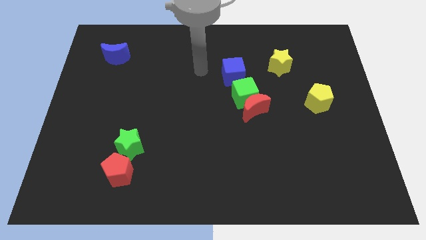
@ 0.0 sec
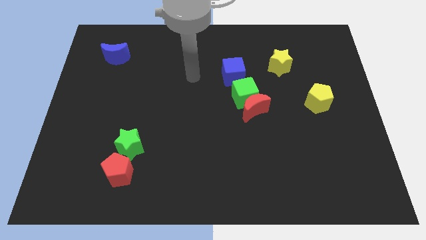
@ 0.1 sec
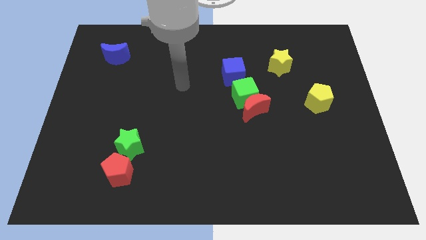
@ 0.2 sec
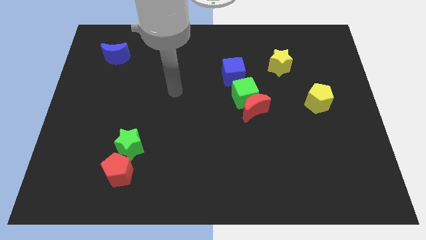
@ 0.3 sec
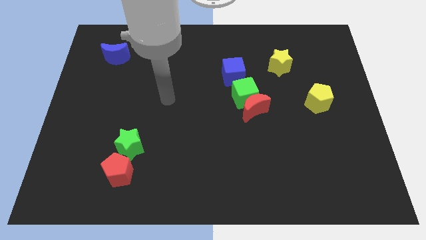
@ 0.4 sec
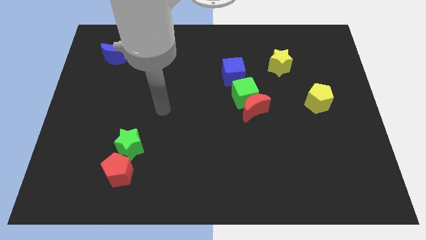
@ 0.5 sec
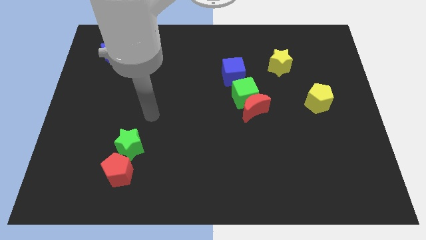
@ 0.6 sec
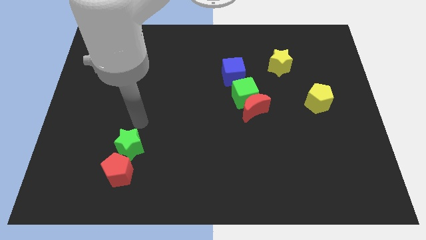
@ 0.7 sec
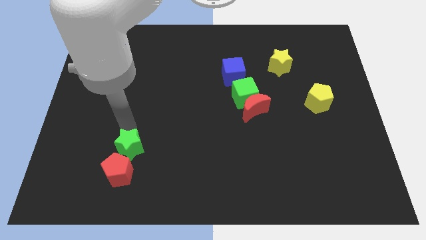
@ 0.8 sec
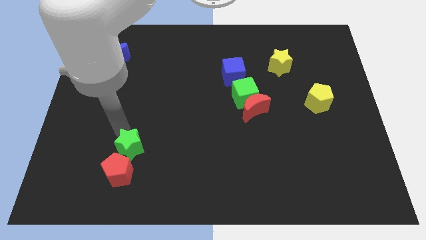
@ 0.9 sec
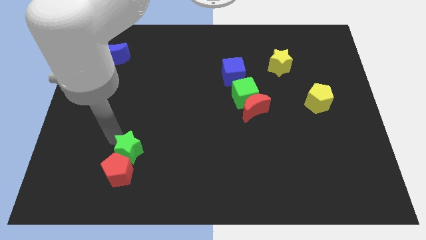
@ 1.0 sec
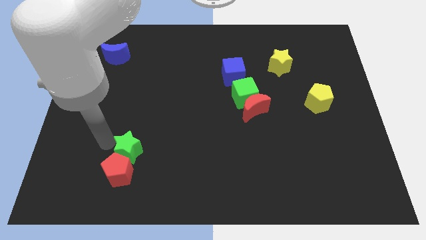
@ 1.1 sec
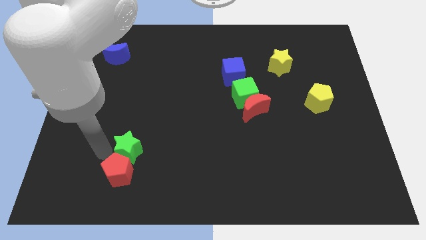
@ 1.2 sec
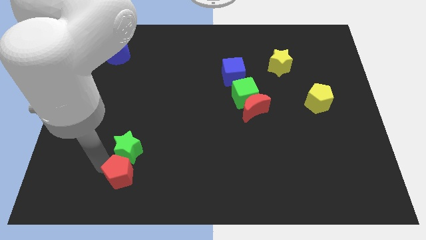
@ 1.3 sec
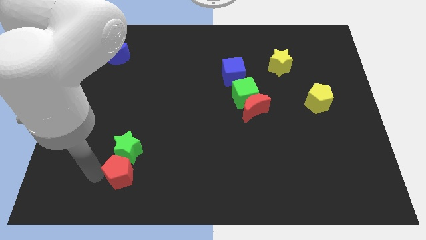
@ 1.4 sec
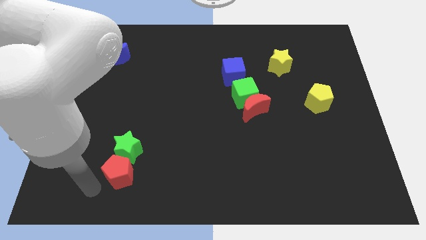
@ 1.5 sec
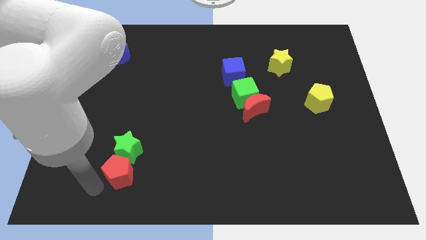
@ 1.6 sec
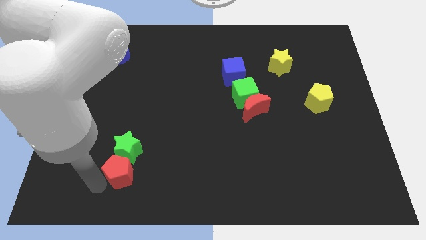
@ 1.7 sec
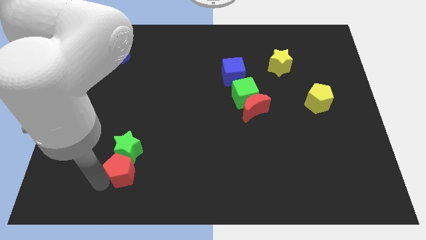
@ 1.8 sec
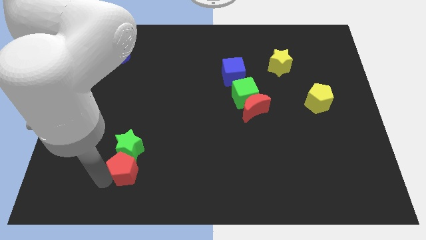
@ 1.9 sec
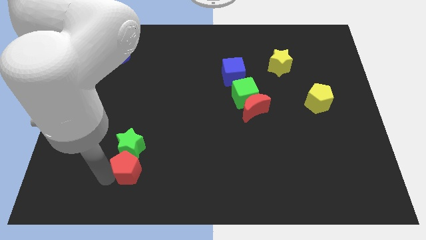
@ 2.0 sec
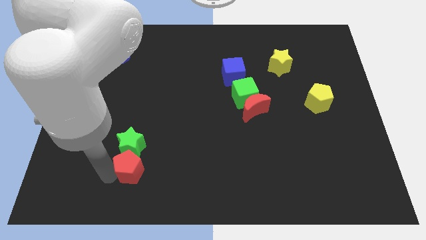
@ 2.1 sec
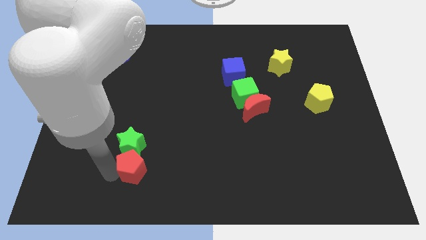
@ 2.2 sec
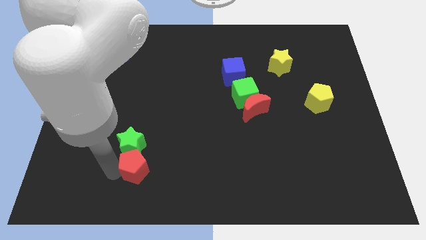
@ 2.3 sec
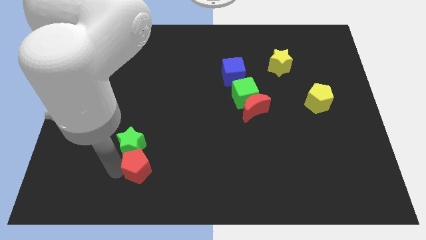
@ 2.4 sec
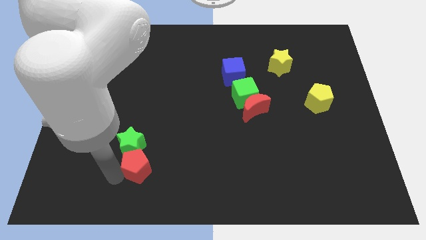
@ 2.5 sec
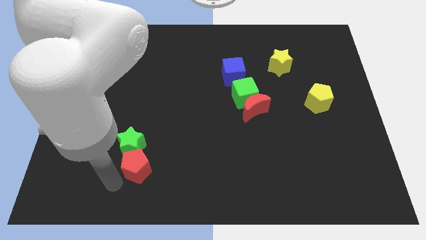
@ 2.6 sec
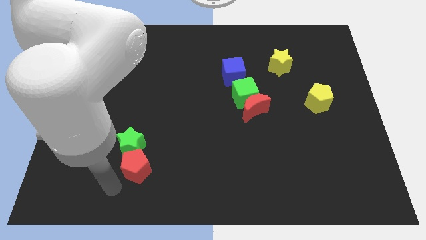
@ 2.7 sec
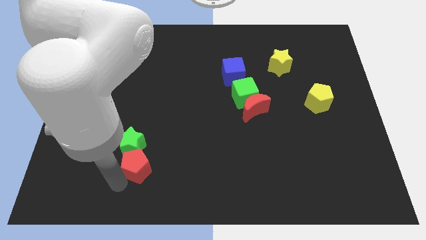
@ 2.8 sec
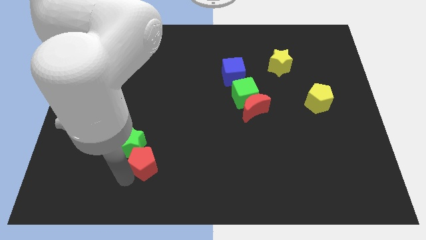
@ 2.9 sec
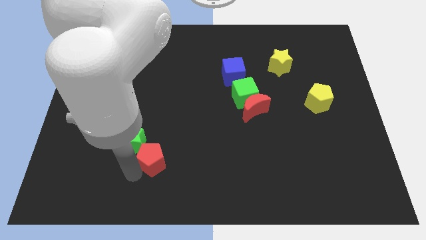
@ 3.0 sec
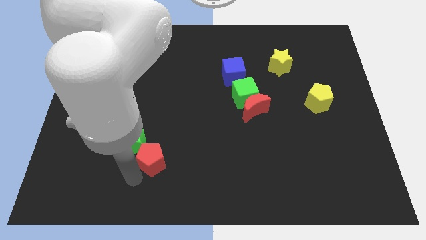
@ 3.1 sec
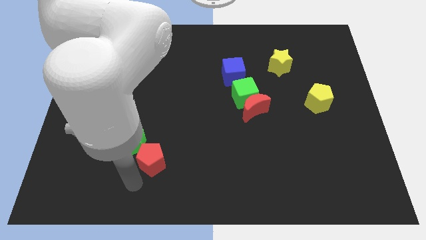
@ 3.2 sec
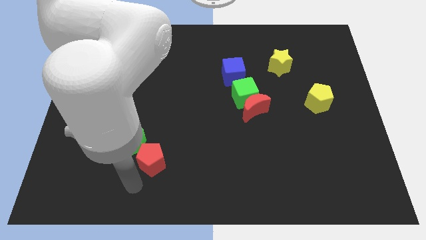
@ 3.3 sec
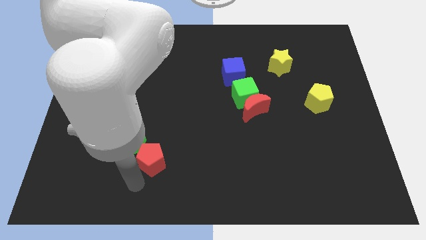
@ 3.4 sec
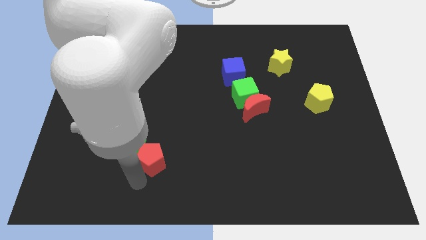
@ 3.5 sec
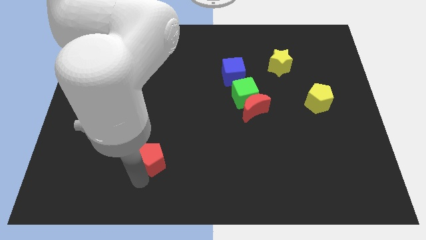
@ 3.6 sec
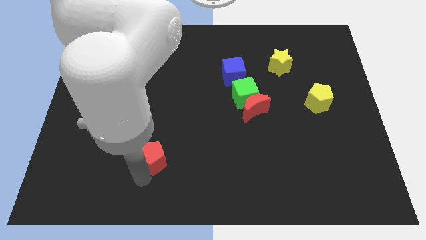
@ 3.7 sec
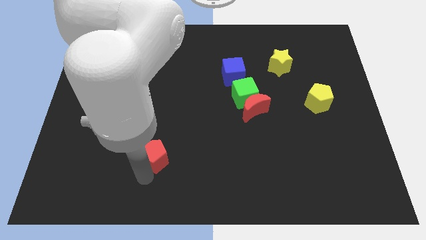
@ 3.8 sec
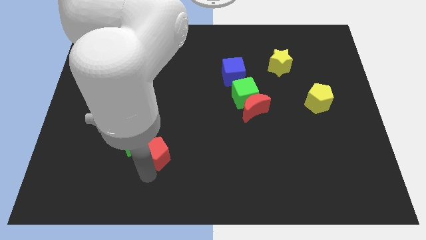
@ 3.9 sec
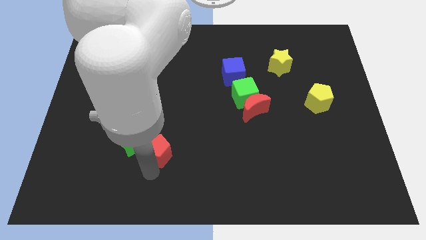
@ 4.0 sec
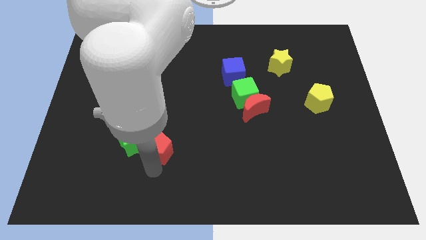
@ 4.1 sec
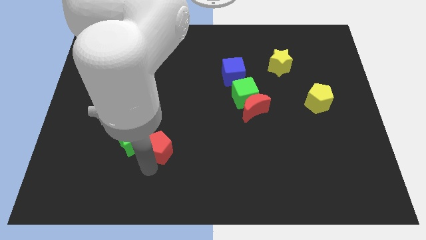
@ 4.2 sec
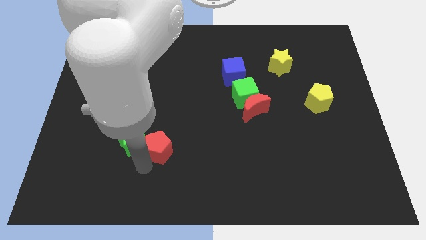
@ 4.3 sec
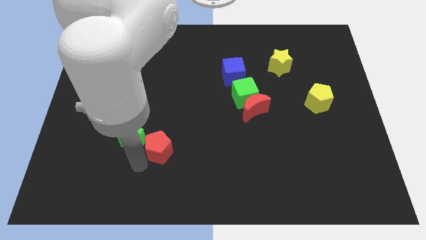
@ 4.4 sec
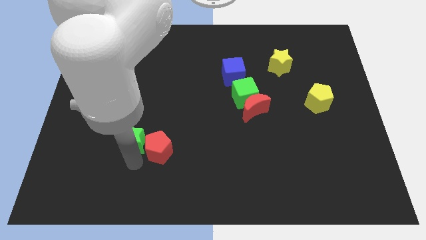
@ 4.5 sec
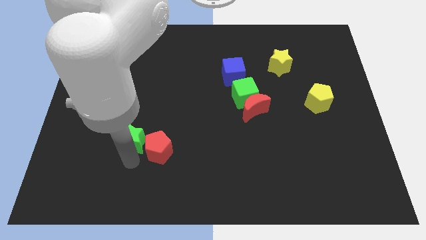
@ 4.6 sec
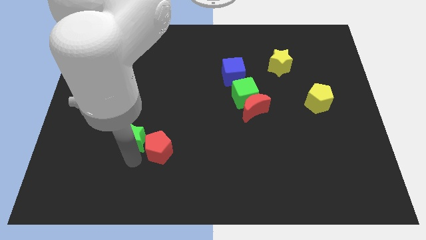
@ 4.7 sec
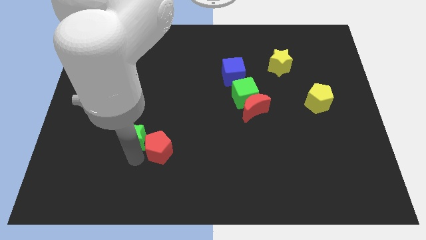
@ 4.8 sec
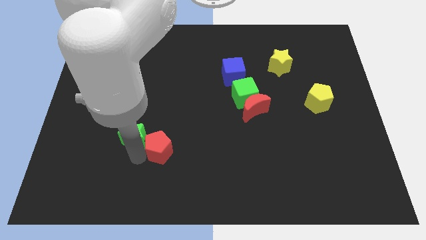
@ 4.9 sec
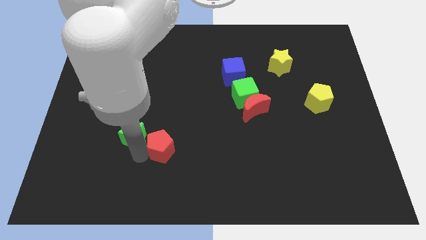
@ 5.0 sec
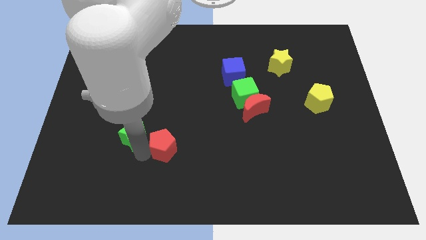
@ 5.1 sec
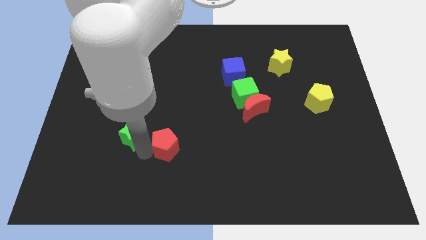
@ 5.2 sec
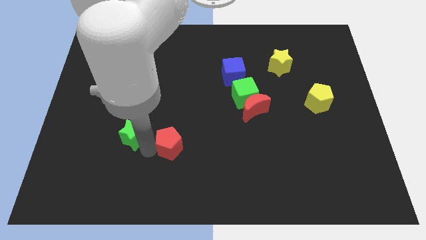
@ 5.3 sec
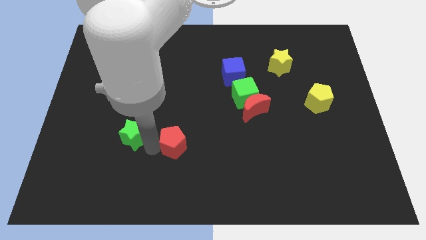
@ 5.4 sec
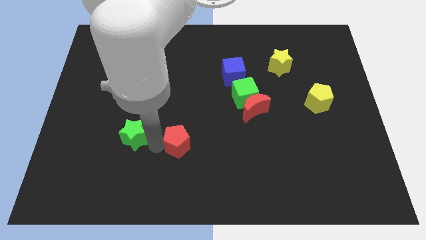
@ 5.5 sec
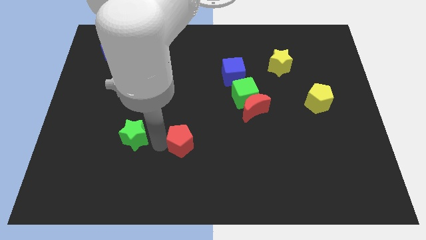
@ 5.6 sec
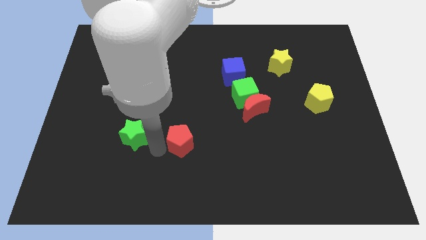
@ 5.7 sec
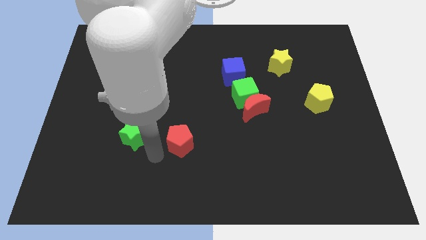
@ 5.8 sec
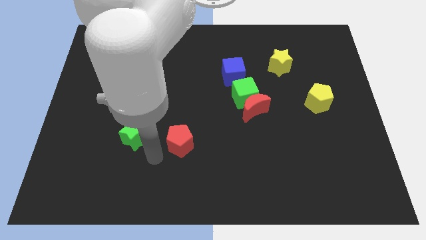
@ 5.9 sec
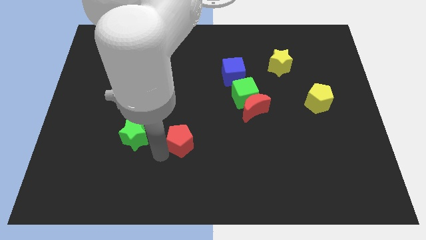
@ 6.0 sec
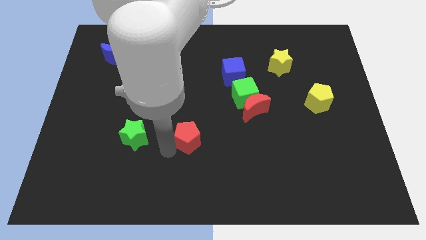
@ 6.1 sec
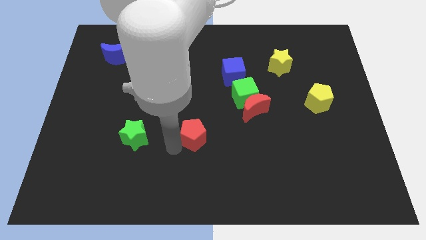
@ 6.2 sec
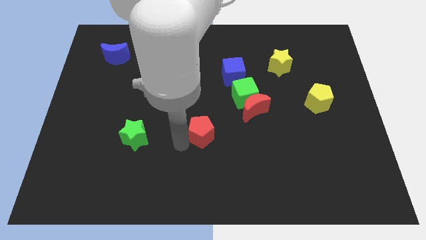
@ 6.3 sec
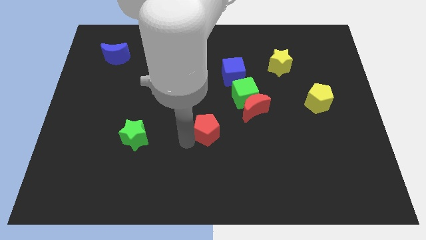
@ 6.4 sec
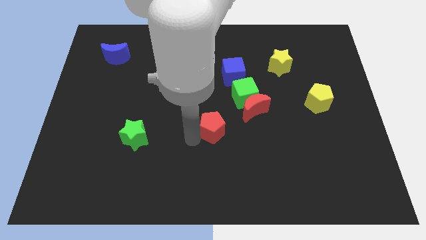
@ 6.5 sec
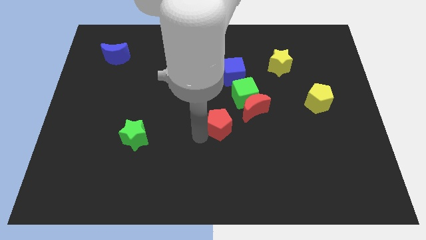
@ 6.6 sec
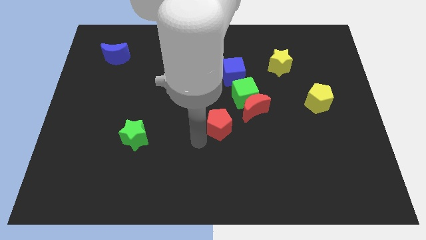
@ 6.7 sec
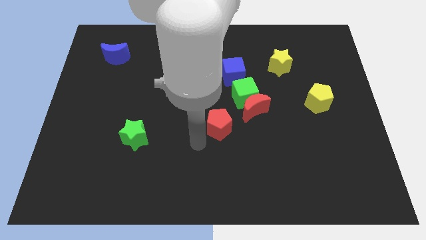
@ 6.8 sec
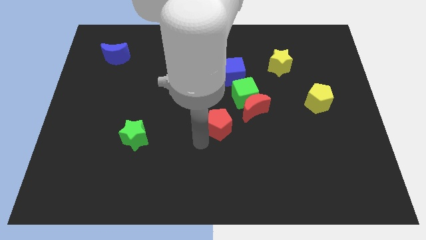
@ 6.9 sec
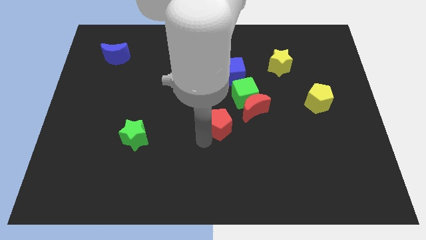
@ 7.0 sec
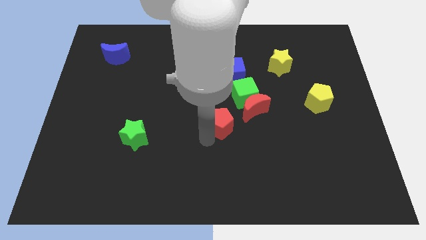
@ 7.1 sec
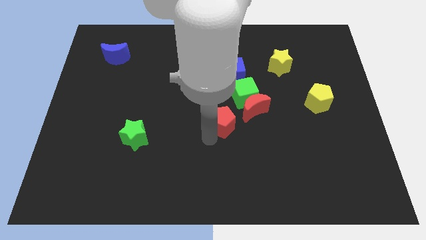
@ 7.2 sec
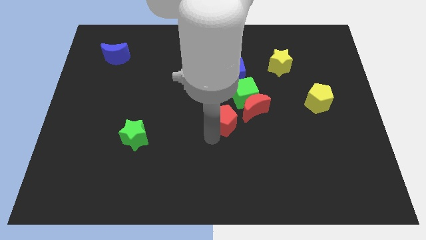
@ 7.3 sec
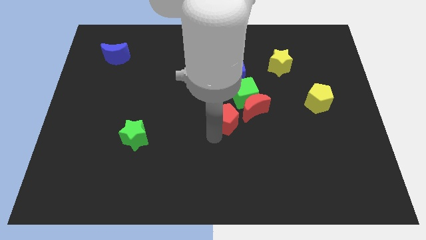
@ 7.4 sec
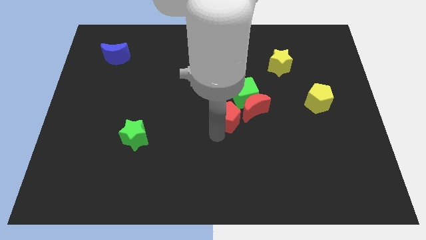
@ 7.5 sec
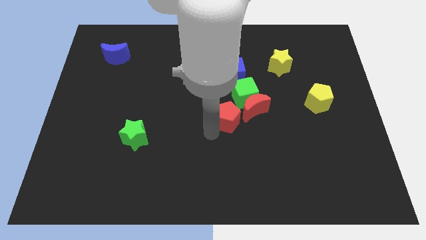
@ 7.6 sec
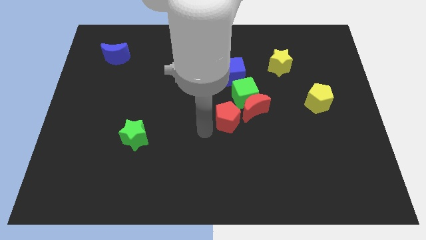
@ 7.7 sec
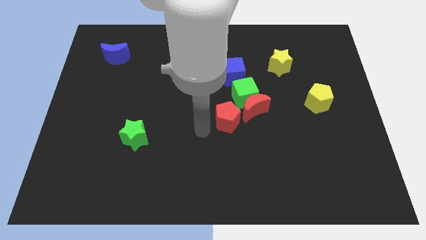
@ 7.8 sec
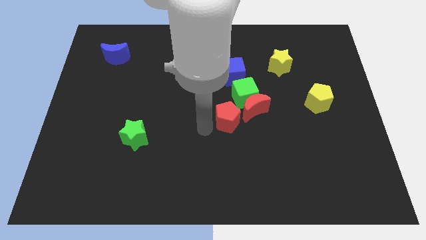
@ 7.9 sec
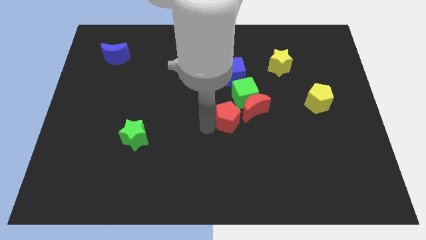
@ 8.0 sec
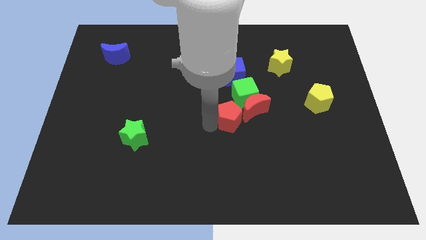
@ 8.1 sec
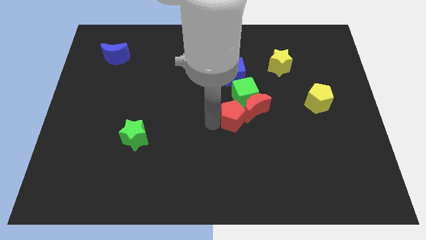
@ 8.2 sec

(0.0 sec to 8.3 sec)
push the red pentagon close to the red moon
